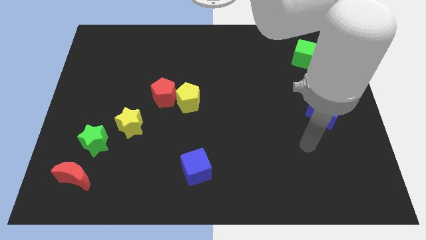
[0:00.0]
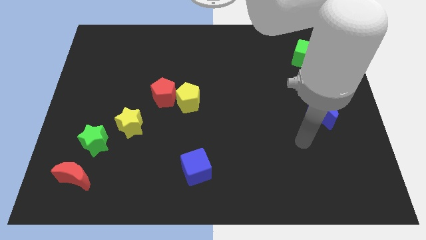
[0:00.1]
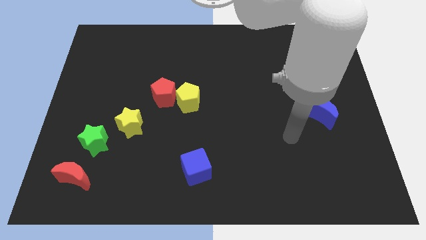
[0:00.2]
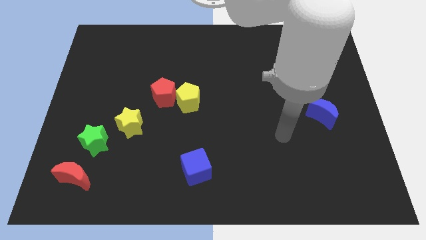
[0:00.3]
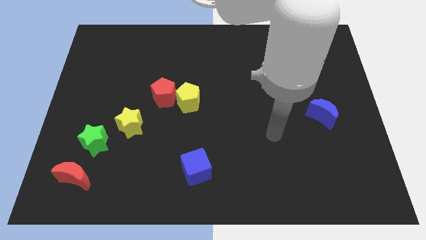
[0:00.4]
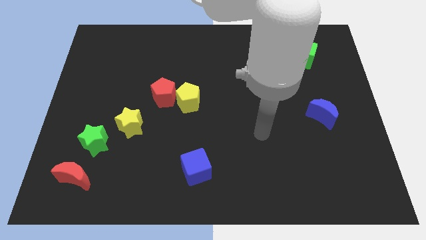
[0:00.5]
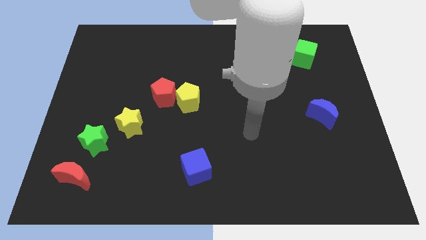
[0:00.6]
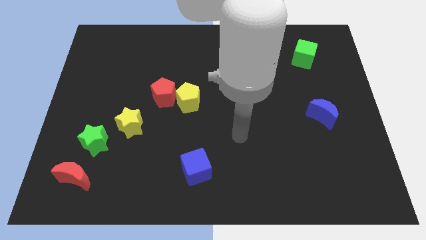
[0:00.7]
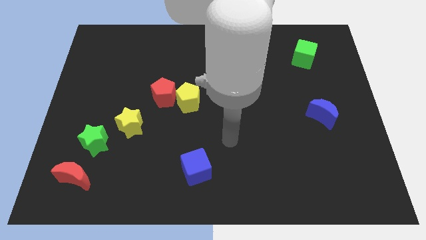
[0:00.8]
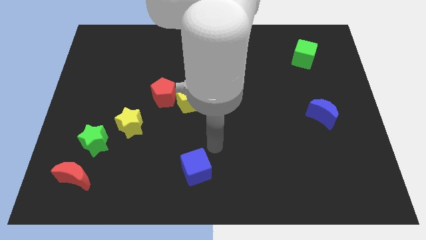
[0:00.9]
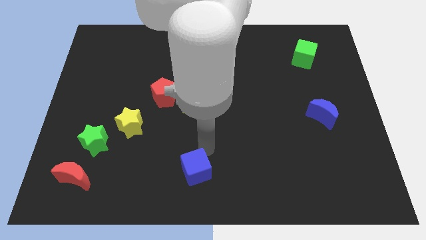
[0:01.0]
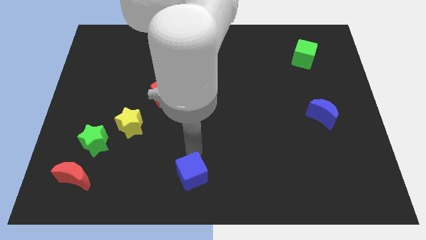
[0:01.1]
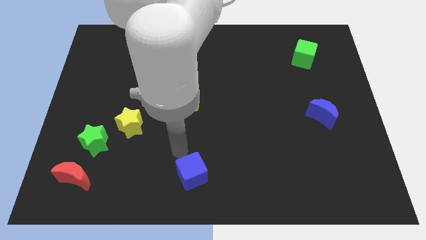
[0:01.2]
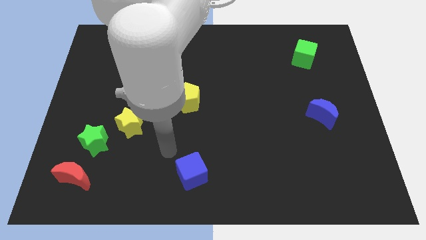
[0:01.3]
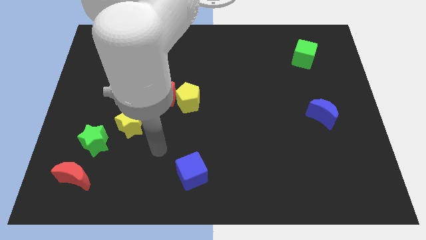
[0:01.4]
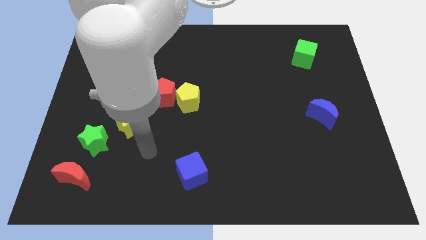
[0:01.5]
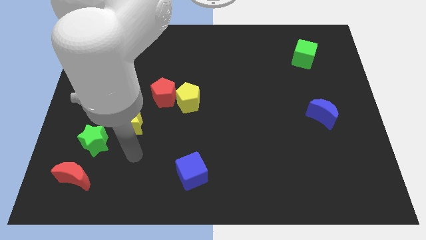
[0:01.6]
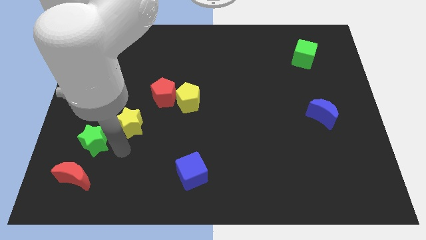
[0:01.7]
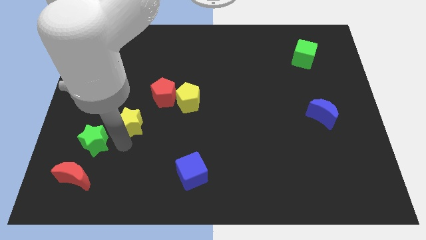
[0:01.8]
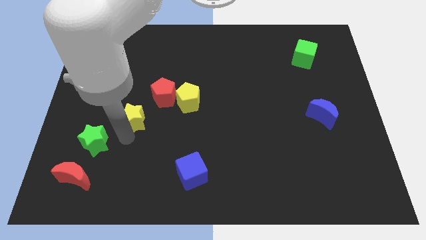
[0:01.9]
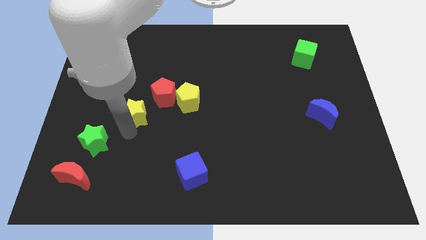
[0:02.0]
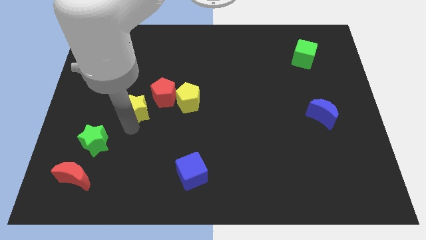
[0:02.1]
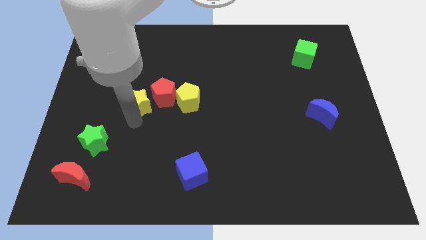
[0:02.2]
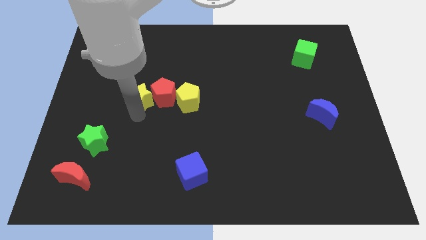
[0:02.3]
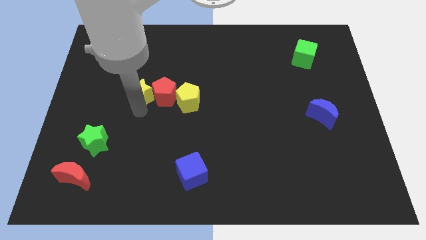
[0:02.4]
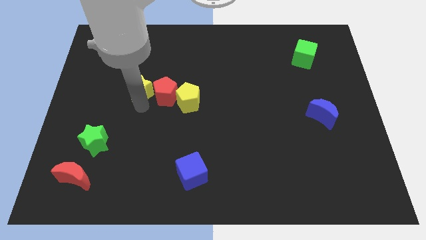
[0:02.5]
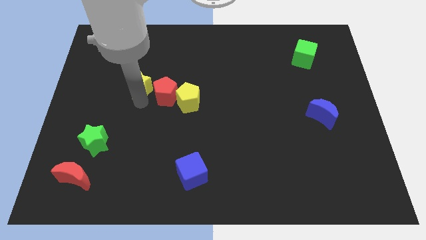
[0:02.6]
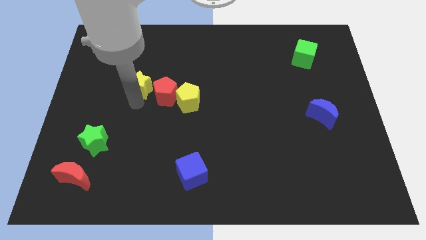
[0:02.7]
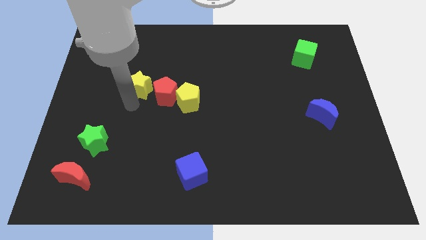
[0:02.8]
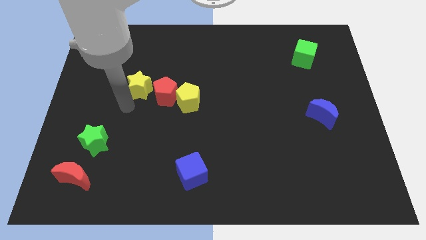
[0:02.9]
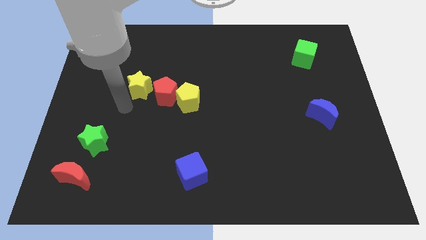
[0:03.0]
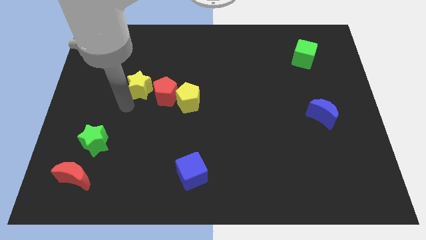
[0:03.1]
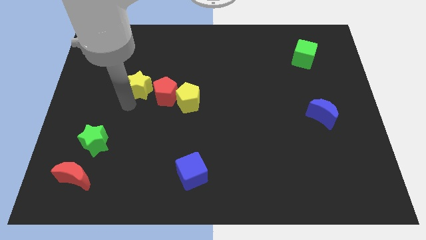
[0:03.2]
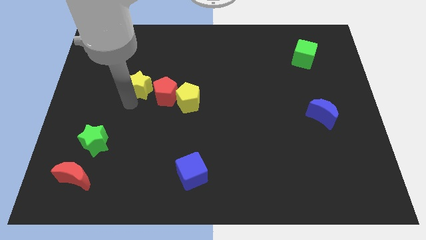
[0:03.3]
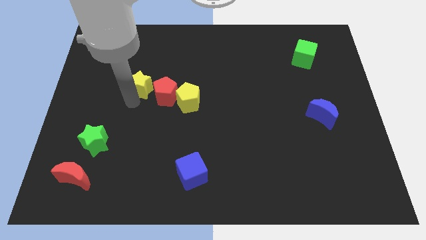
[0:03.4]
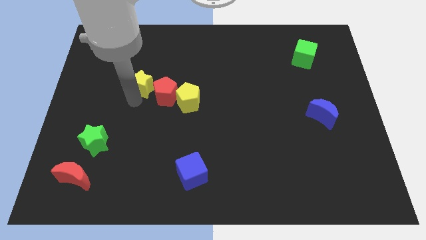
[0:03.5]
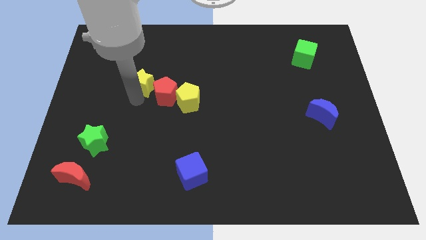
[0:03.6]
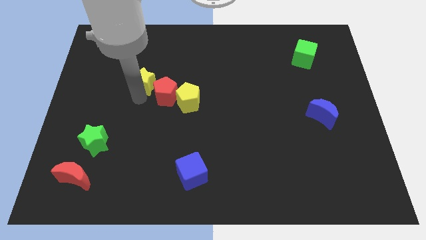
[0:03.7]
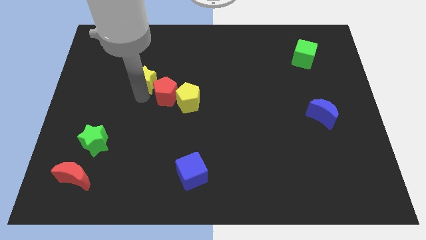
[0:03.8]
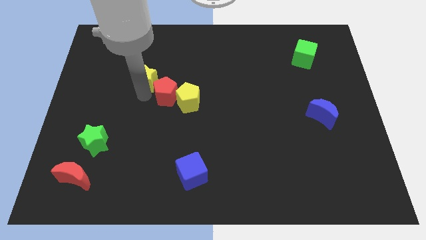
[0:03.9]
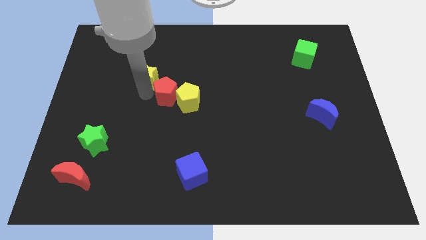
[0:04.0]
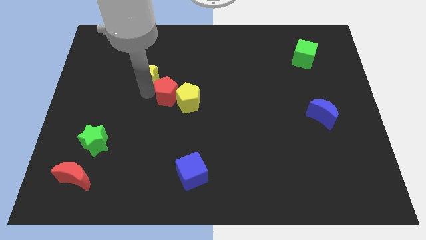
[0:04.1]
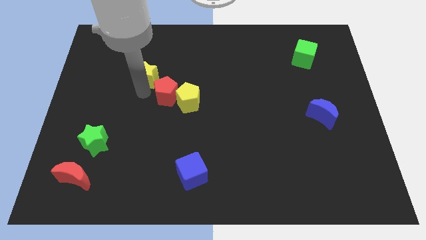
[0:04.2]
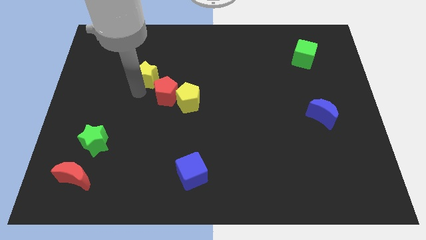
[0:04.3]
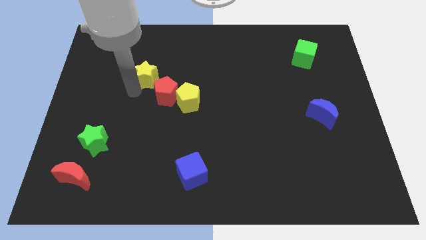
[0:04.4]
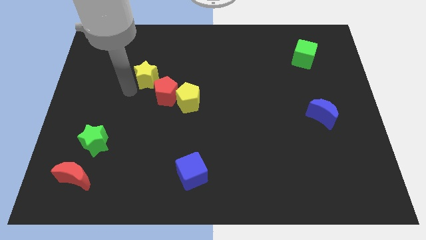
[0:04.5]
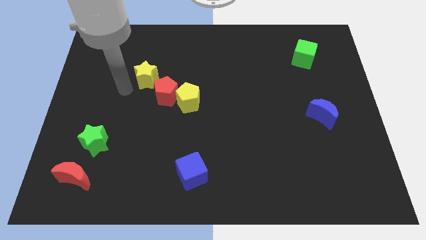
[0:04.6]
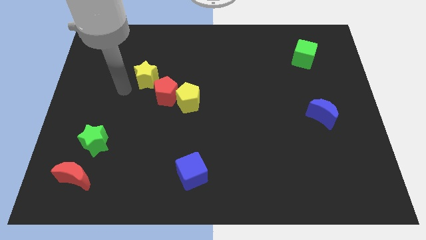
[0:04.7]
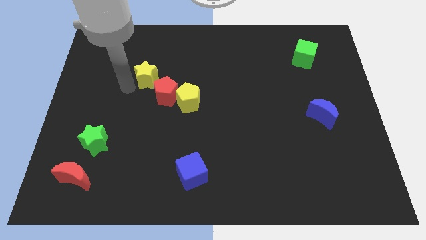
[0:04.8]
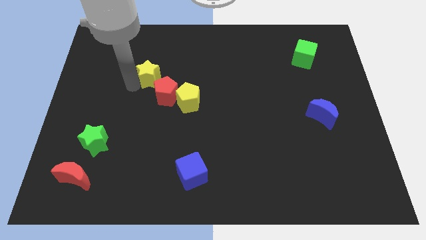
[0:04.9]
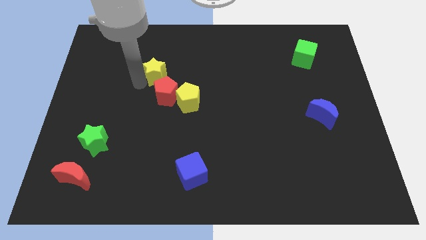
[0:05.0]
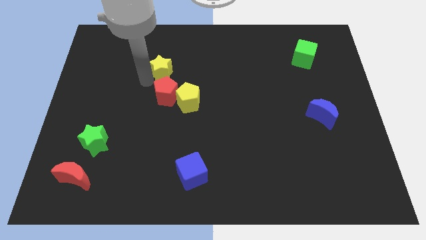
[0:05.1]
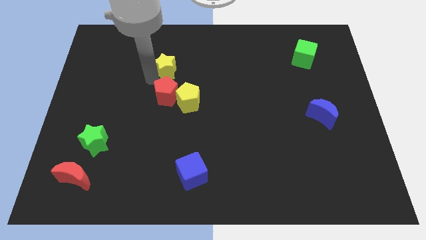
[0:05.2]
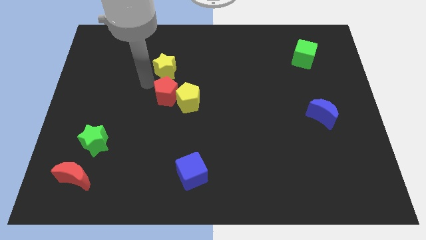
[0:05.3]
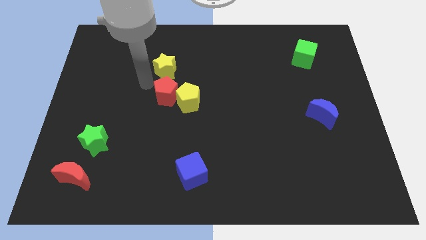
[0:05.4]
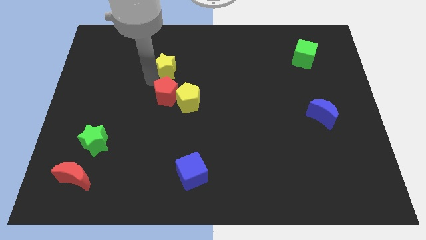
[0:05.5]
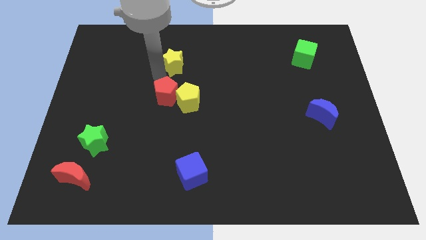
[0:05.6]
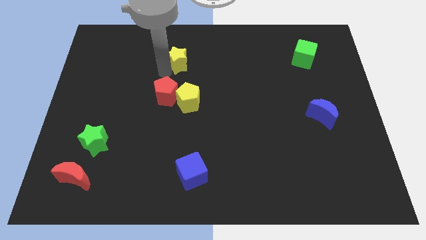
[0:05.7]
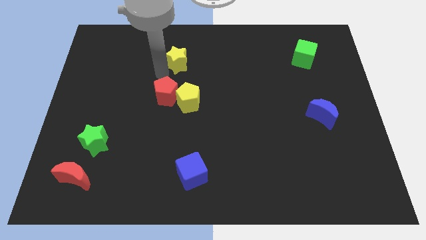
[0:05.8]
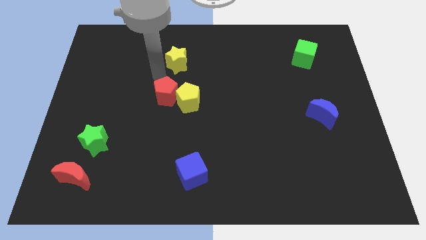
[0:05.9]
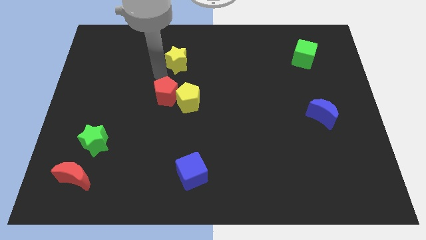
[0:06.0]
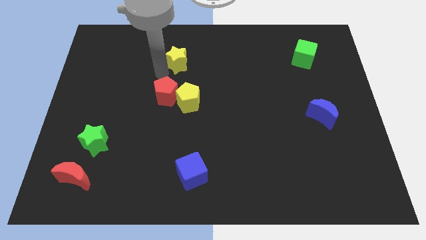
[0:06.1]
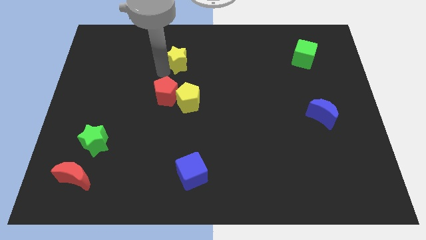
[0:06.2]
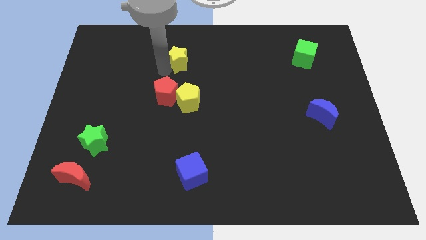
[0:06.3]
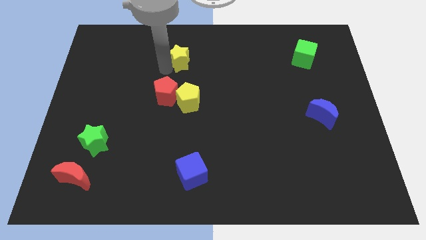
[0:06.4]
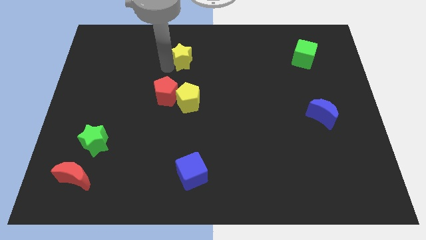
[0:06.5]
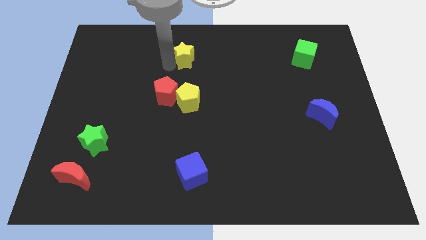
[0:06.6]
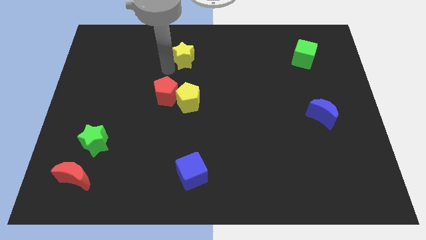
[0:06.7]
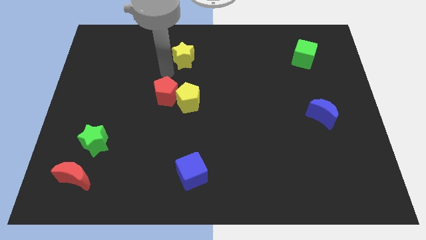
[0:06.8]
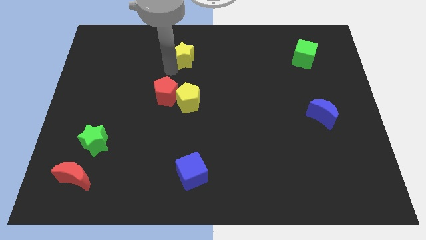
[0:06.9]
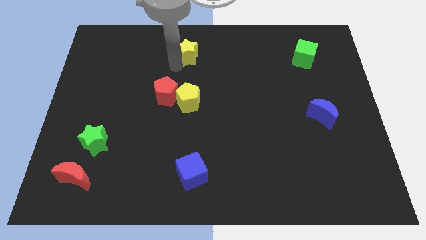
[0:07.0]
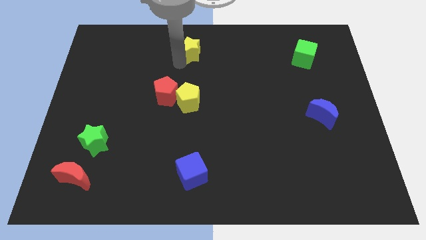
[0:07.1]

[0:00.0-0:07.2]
move the yellow star to the top
